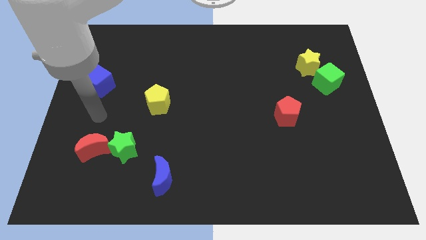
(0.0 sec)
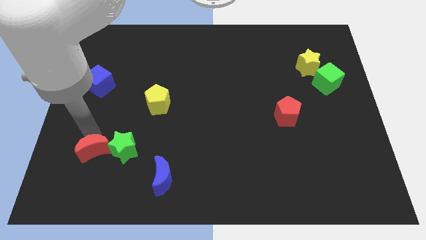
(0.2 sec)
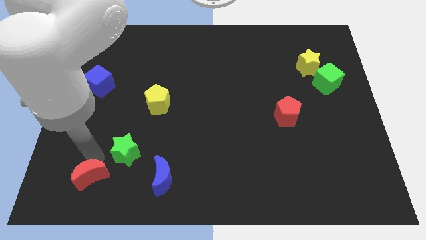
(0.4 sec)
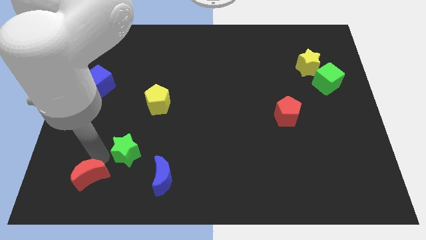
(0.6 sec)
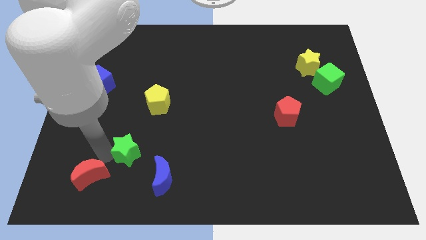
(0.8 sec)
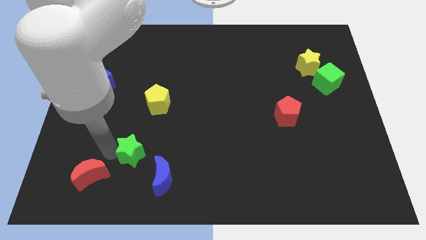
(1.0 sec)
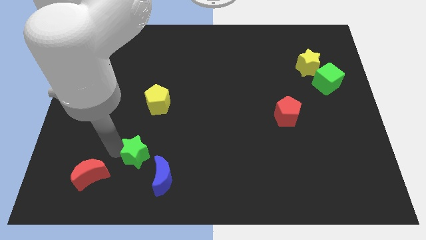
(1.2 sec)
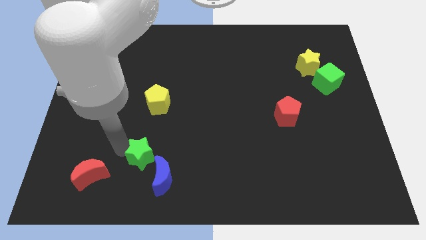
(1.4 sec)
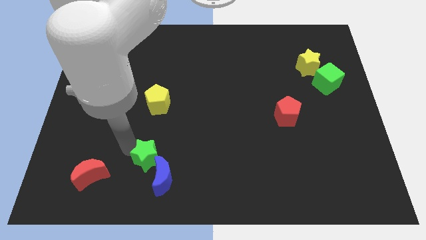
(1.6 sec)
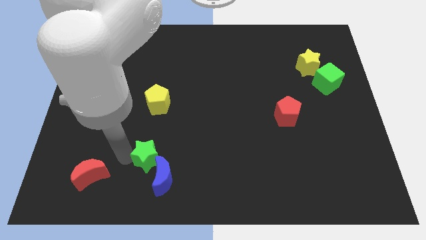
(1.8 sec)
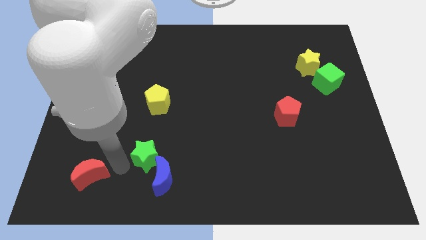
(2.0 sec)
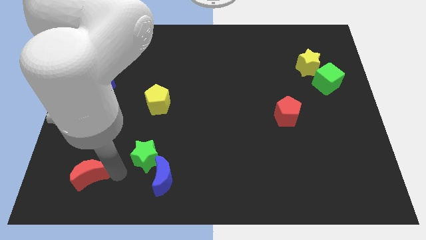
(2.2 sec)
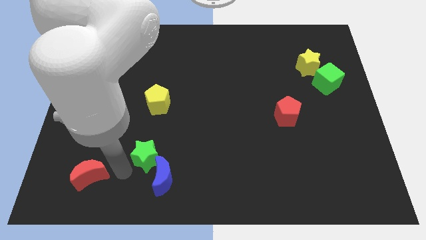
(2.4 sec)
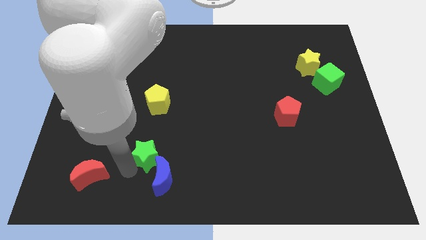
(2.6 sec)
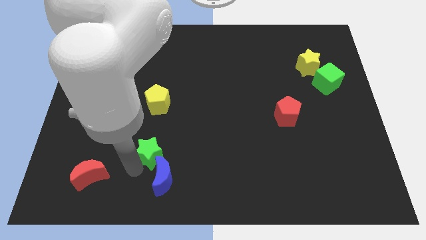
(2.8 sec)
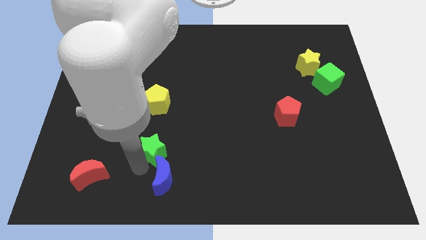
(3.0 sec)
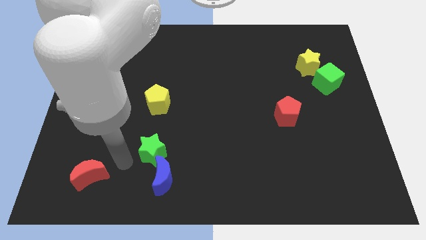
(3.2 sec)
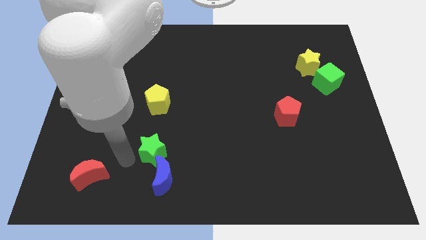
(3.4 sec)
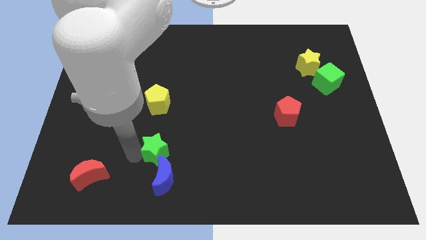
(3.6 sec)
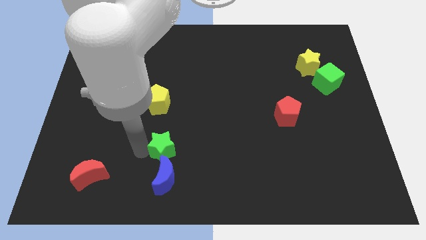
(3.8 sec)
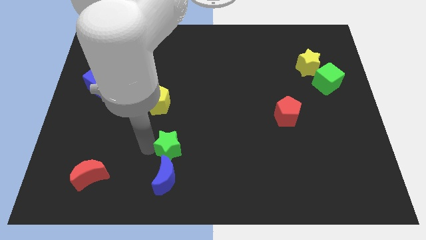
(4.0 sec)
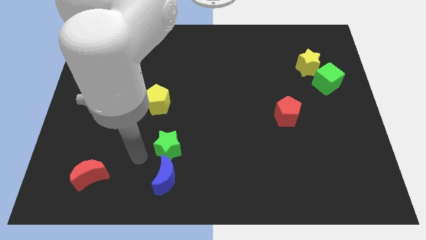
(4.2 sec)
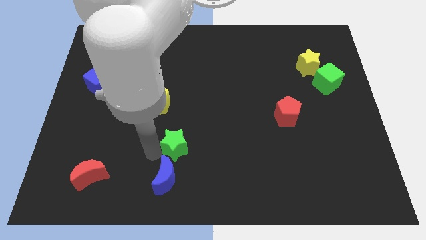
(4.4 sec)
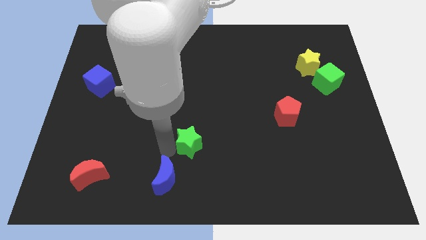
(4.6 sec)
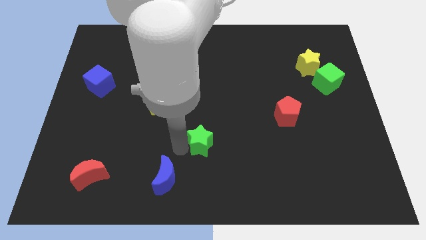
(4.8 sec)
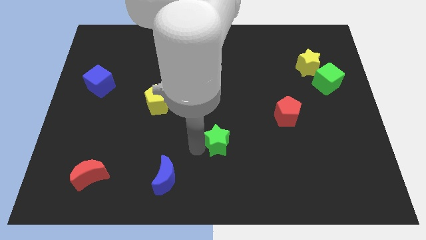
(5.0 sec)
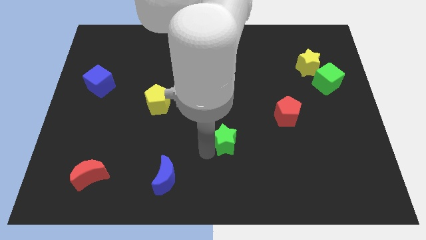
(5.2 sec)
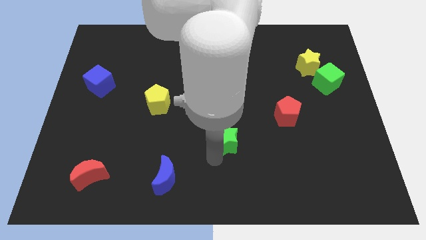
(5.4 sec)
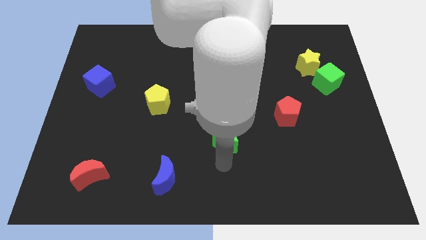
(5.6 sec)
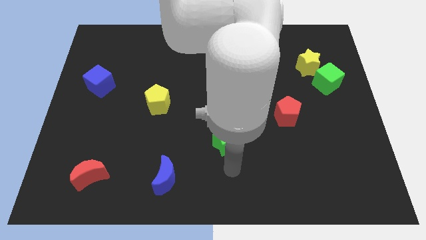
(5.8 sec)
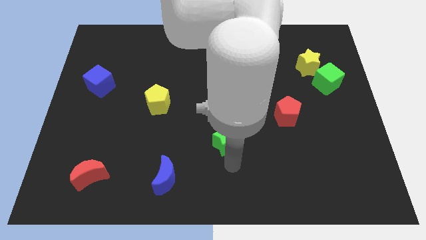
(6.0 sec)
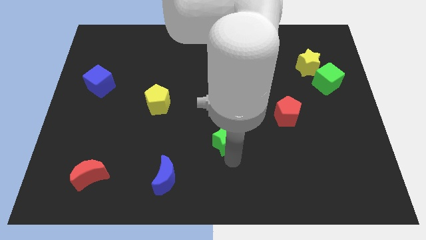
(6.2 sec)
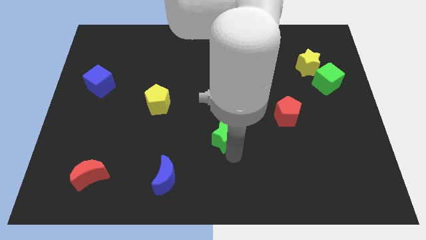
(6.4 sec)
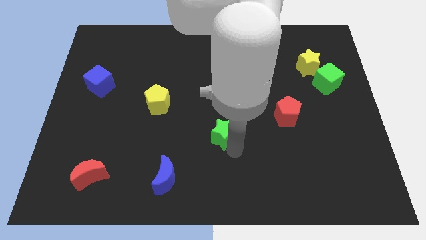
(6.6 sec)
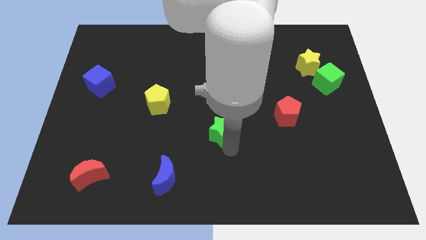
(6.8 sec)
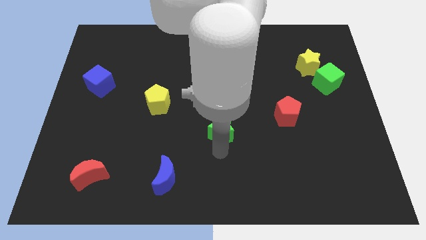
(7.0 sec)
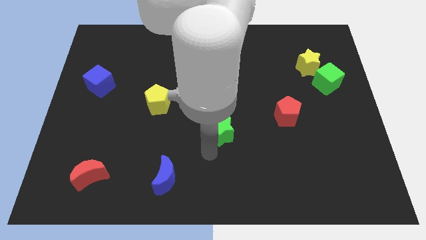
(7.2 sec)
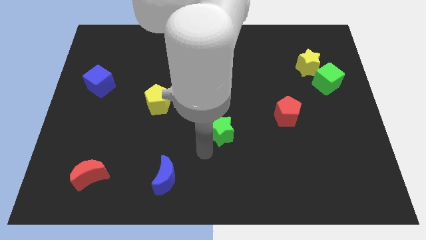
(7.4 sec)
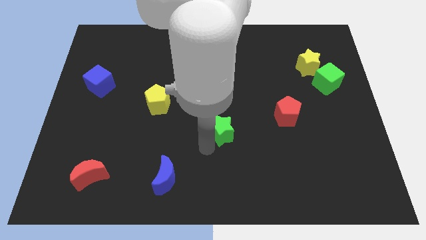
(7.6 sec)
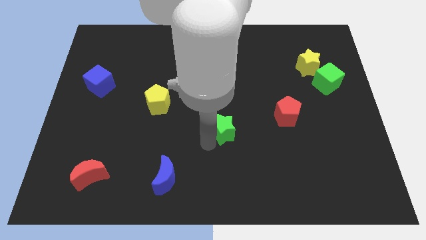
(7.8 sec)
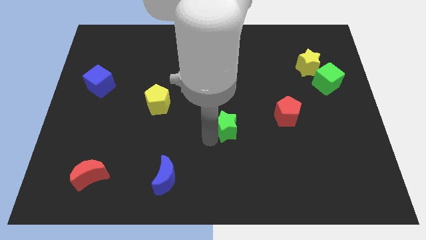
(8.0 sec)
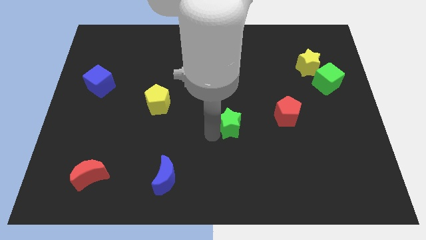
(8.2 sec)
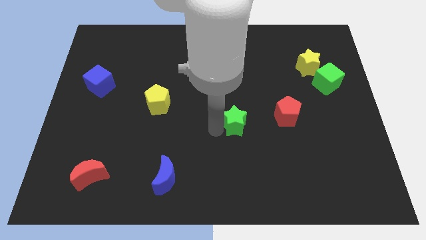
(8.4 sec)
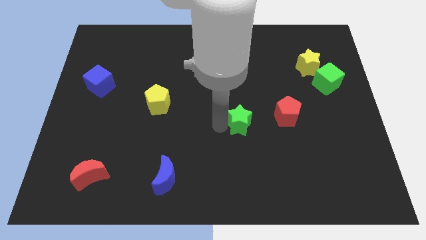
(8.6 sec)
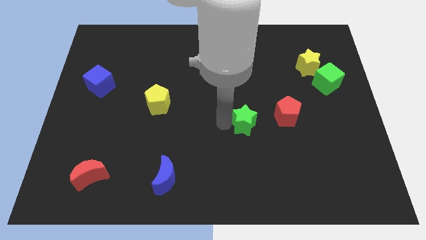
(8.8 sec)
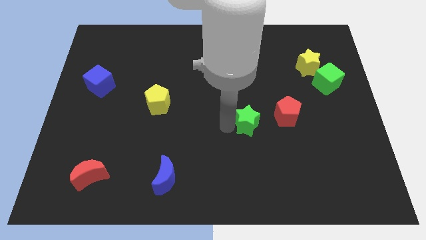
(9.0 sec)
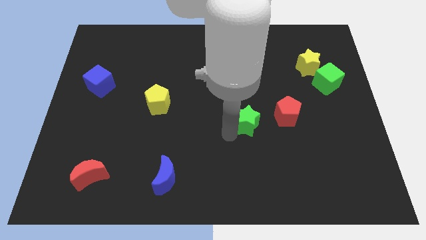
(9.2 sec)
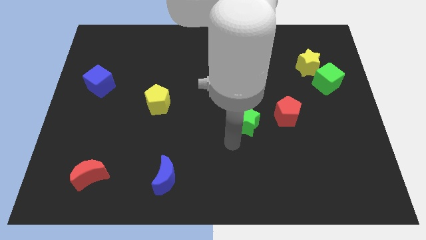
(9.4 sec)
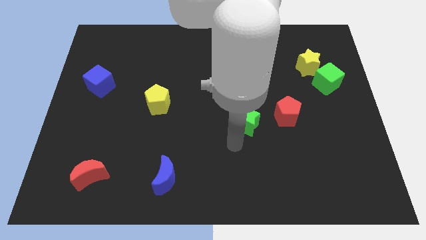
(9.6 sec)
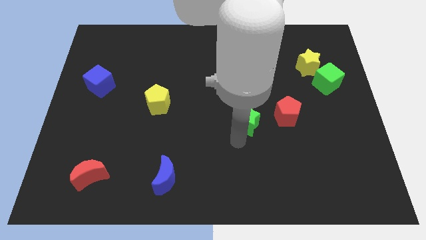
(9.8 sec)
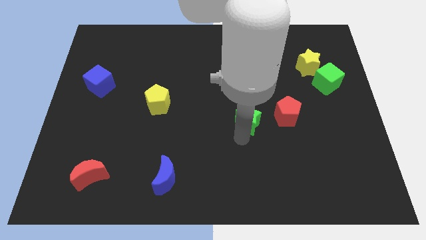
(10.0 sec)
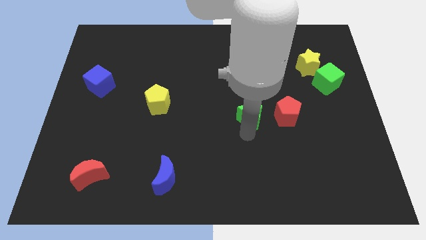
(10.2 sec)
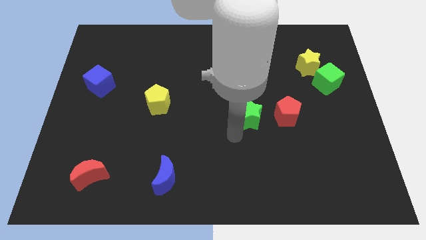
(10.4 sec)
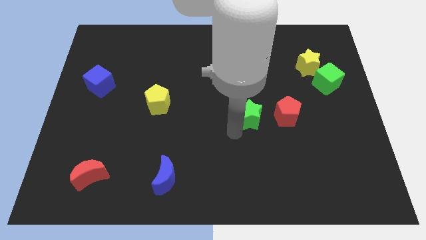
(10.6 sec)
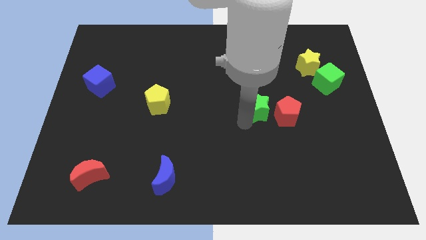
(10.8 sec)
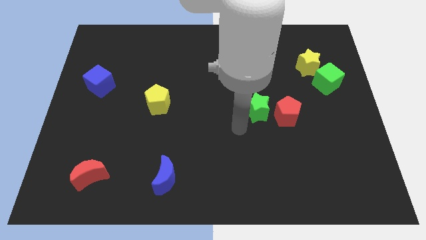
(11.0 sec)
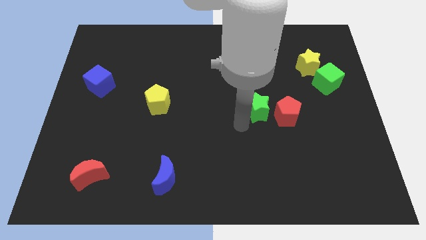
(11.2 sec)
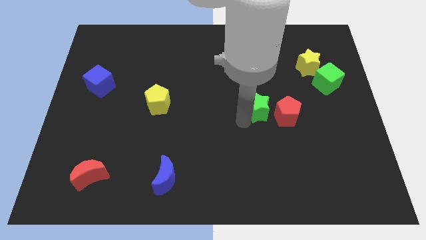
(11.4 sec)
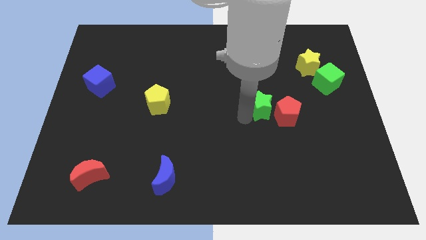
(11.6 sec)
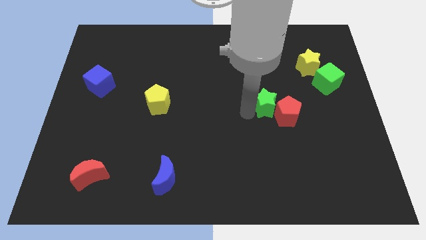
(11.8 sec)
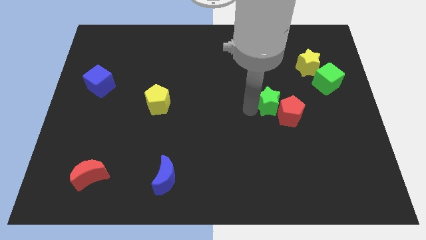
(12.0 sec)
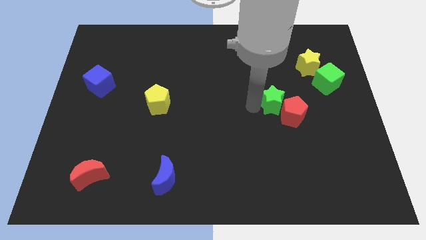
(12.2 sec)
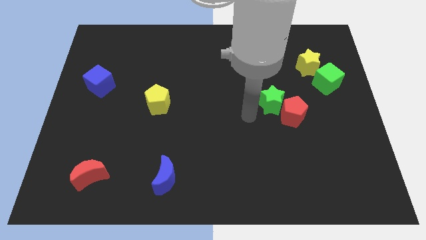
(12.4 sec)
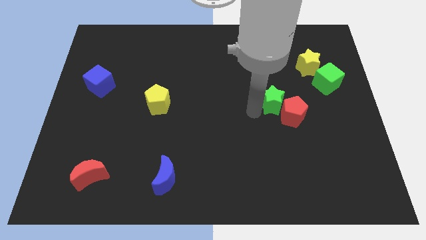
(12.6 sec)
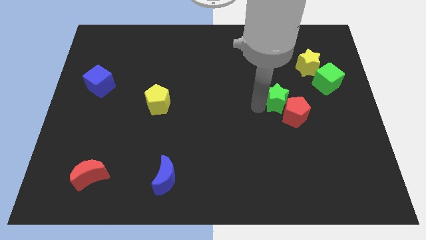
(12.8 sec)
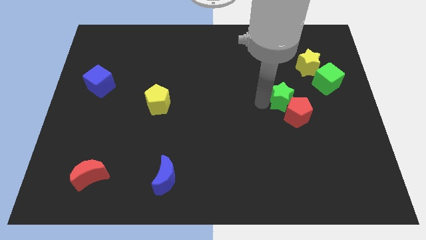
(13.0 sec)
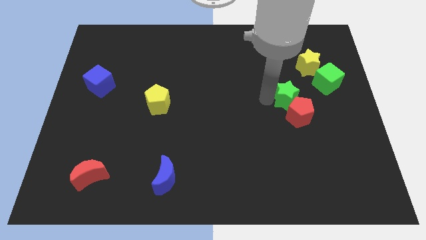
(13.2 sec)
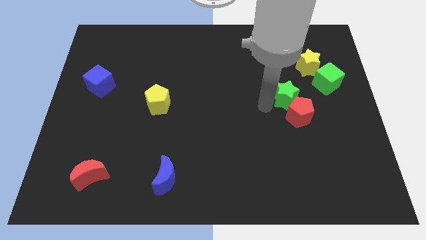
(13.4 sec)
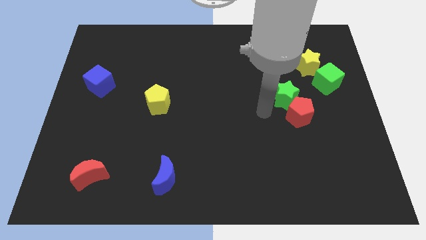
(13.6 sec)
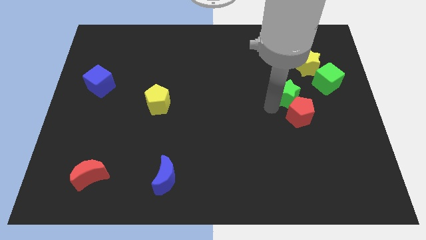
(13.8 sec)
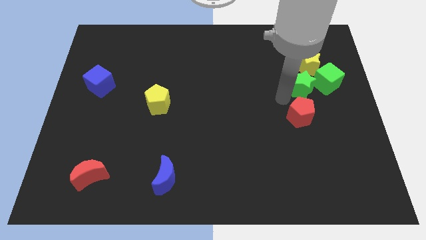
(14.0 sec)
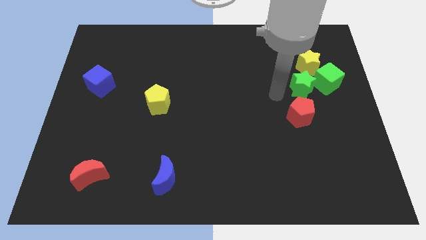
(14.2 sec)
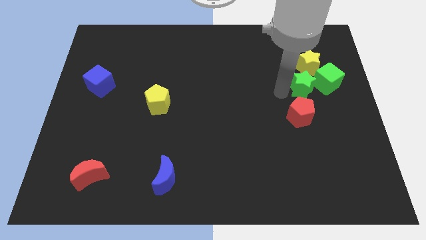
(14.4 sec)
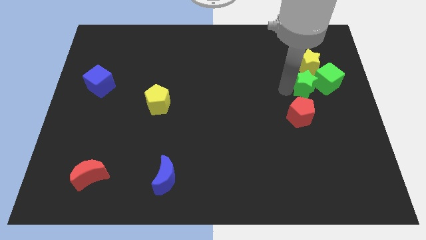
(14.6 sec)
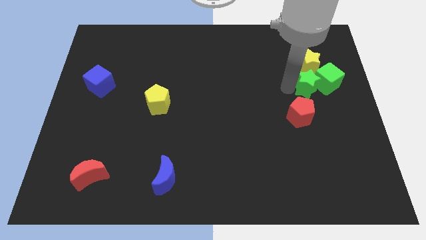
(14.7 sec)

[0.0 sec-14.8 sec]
move the green star towards the green cube

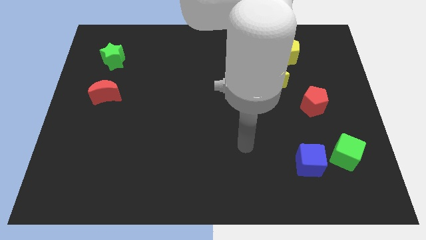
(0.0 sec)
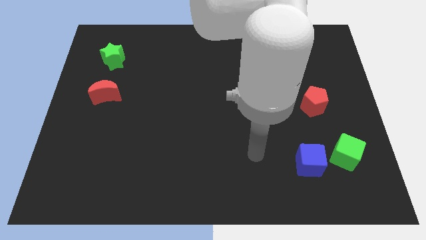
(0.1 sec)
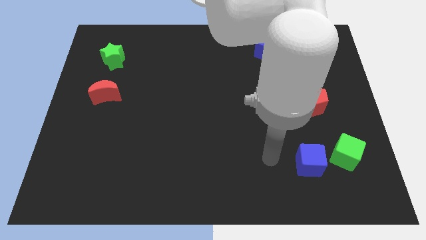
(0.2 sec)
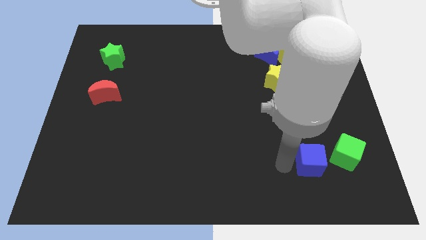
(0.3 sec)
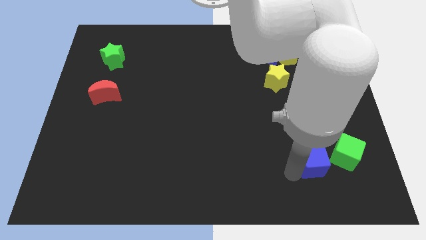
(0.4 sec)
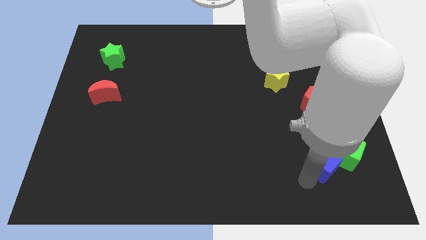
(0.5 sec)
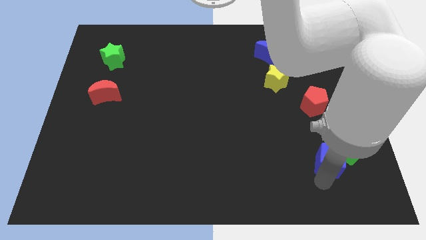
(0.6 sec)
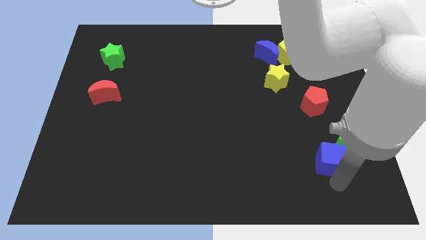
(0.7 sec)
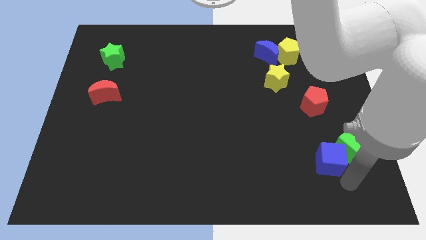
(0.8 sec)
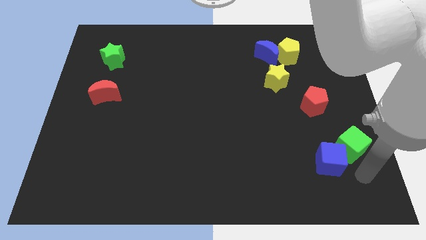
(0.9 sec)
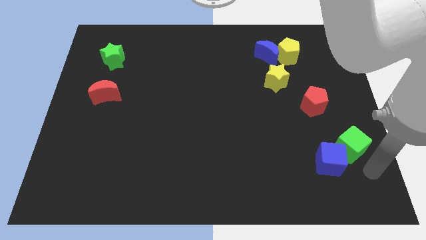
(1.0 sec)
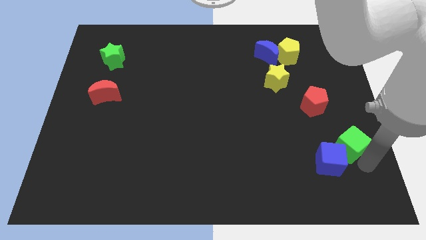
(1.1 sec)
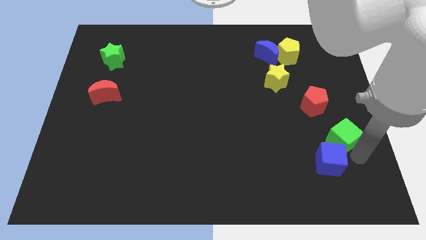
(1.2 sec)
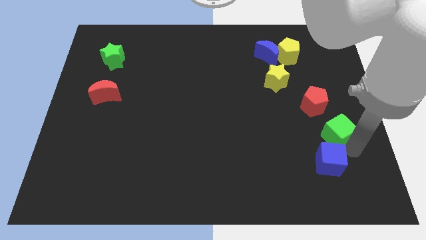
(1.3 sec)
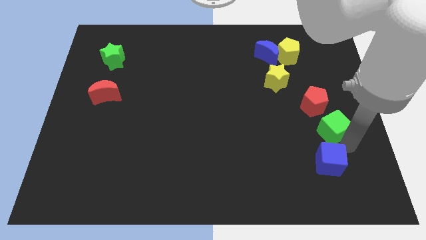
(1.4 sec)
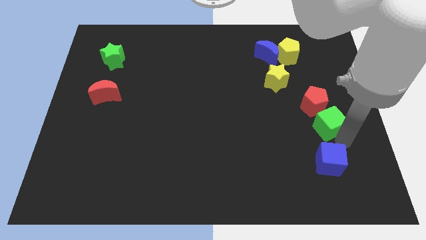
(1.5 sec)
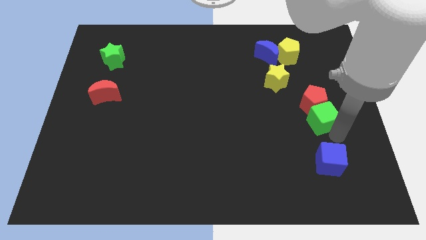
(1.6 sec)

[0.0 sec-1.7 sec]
push the green cube to the red pentagon
